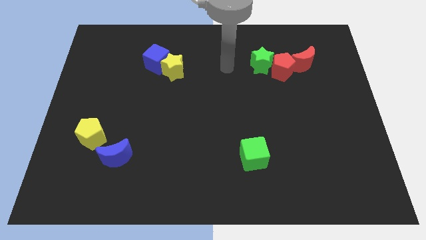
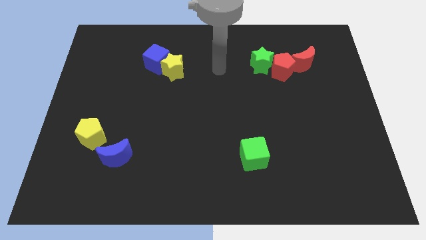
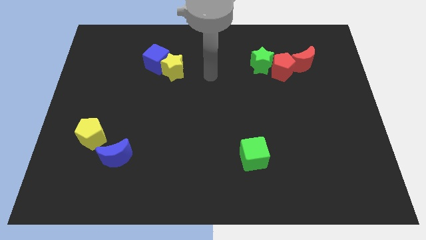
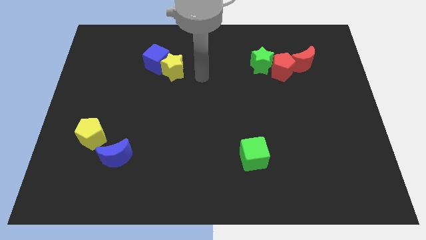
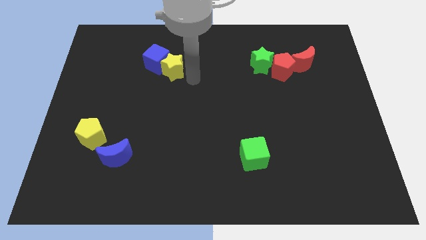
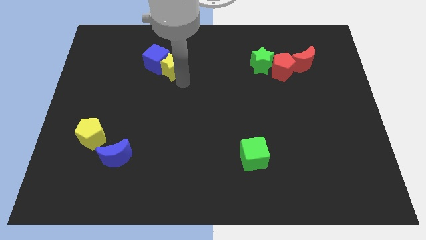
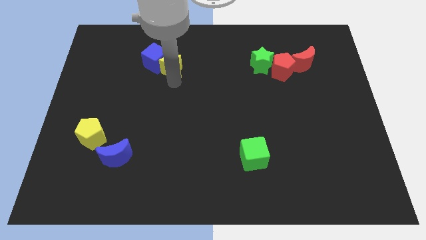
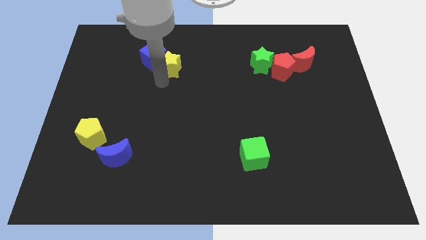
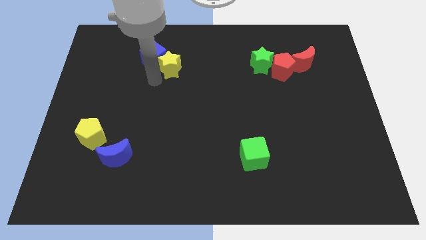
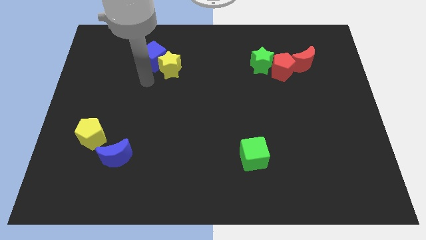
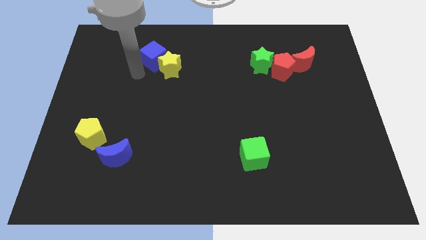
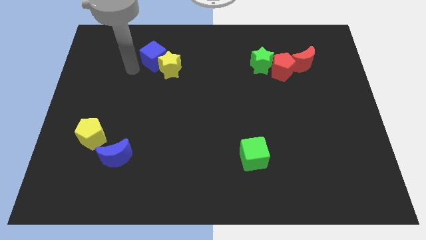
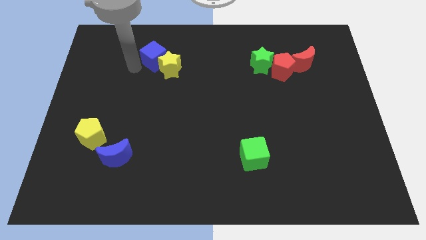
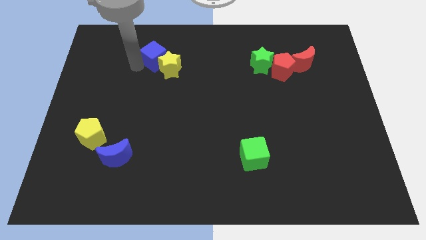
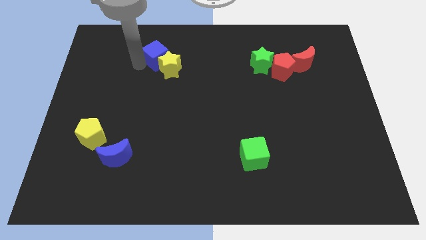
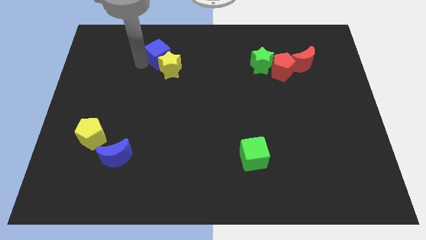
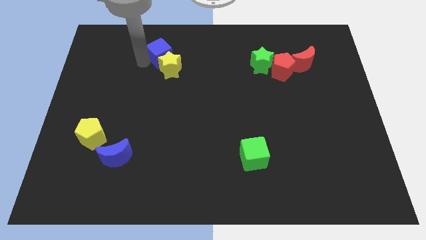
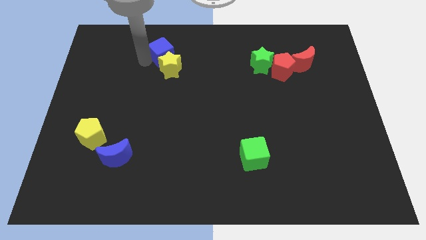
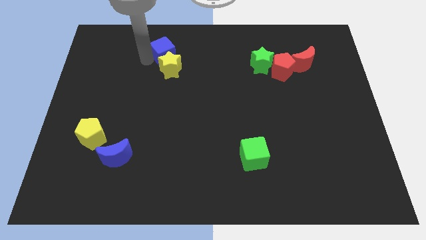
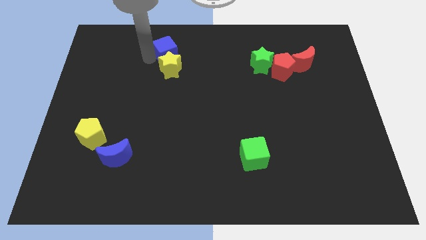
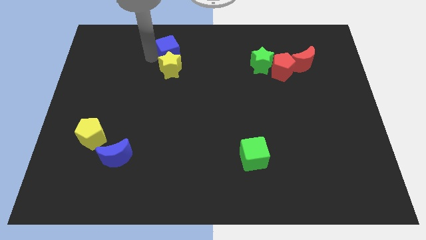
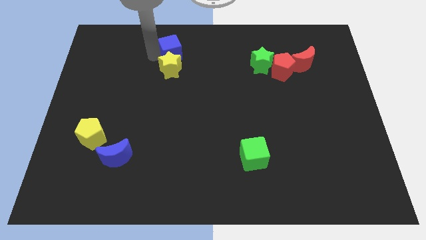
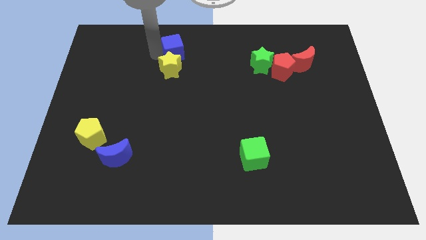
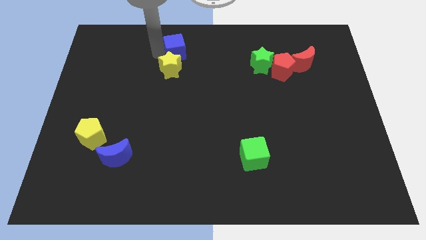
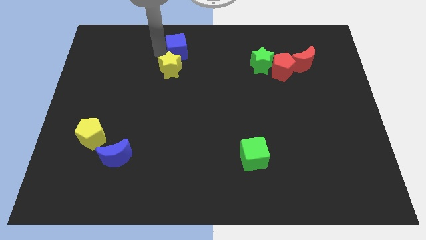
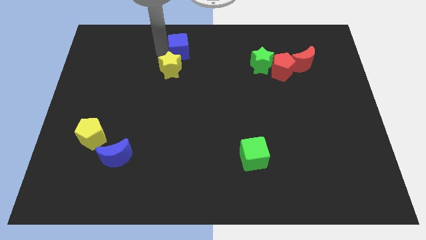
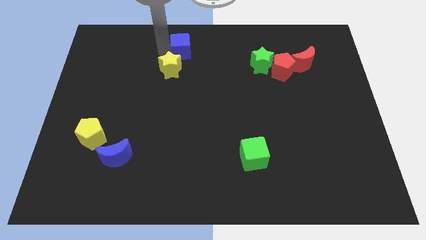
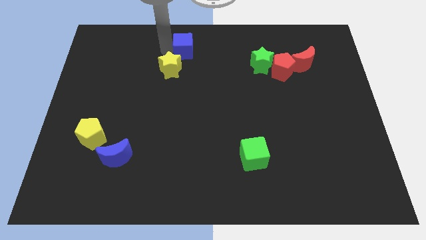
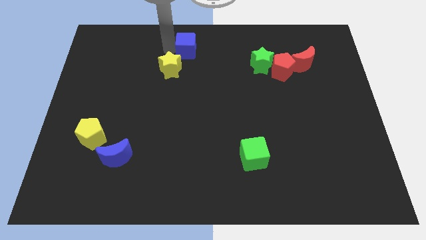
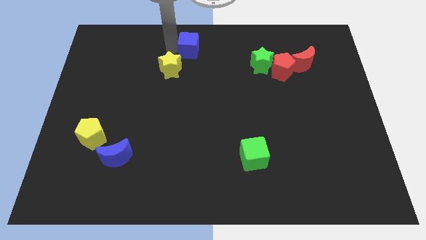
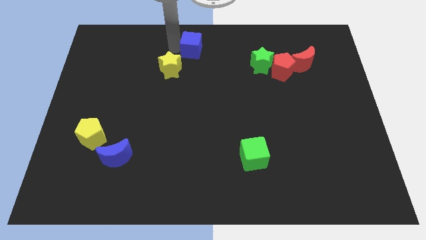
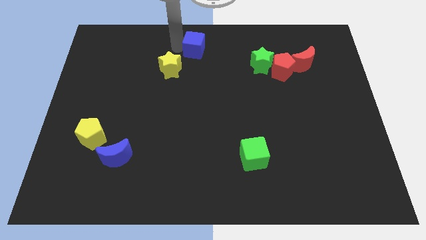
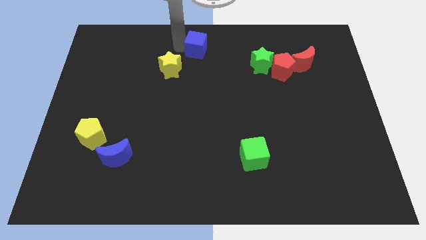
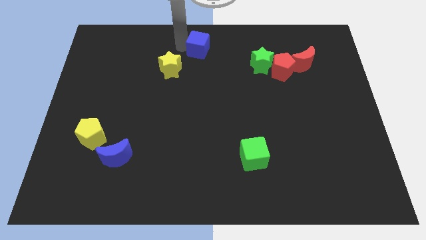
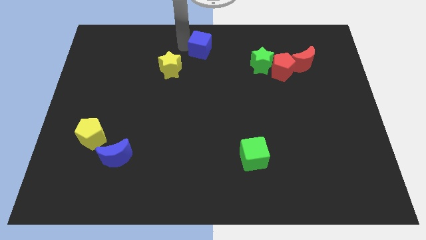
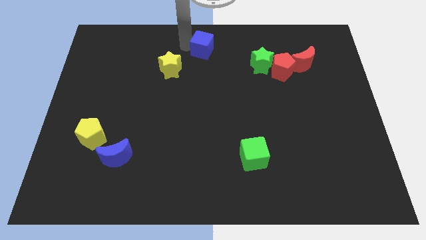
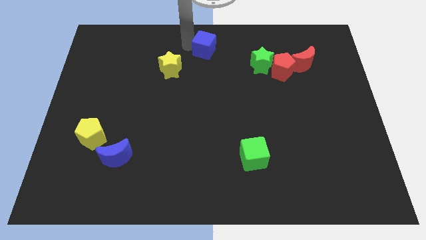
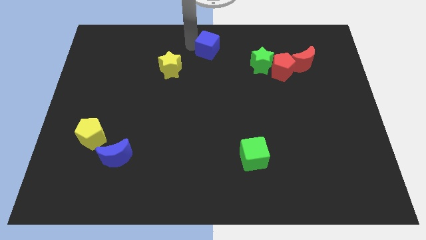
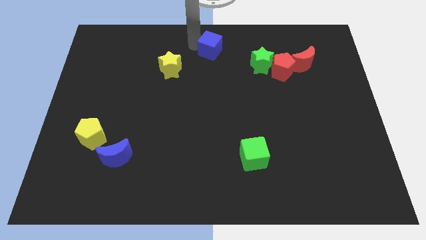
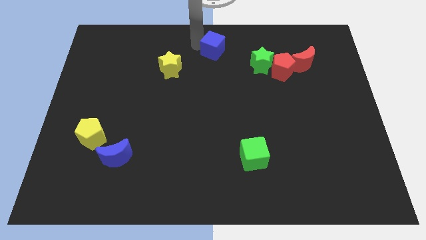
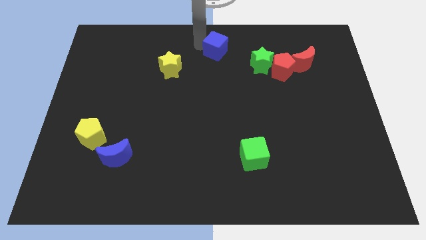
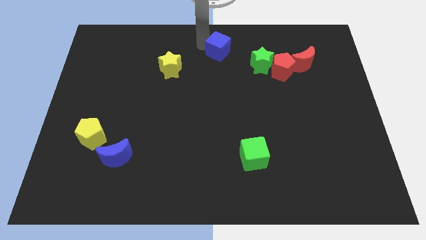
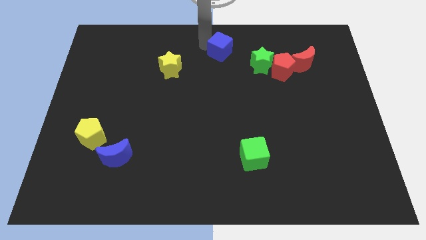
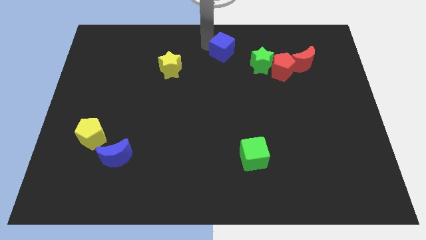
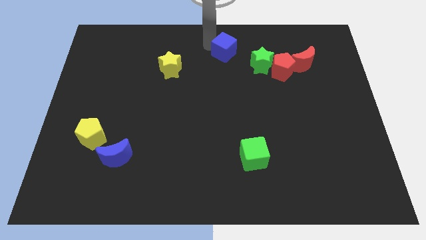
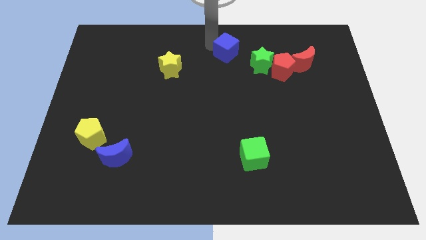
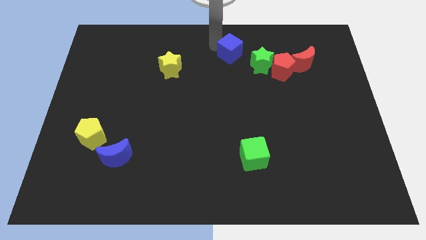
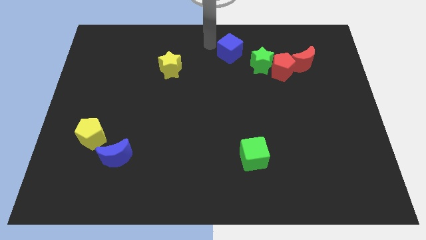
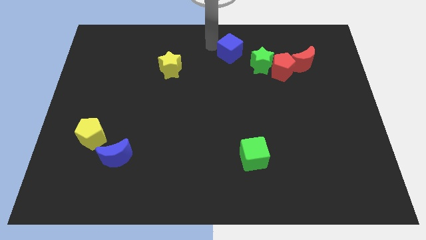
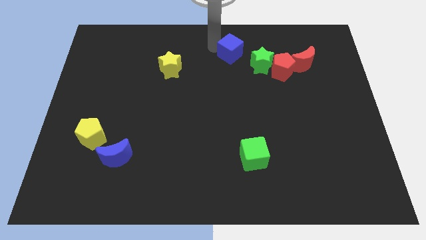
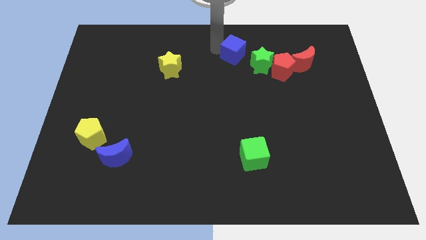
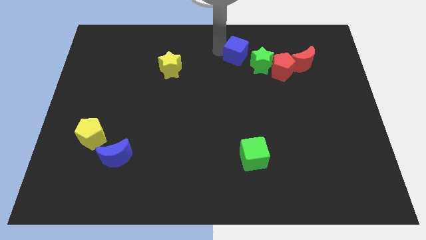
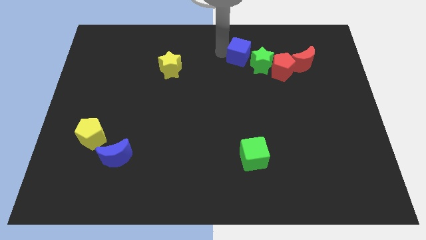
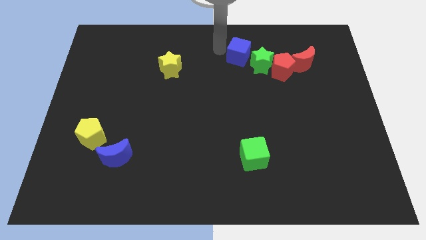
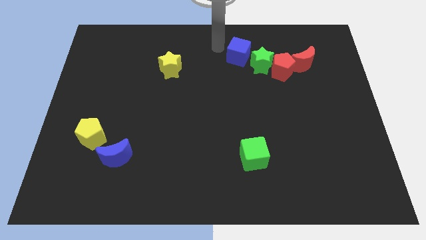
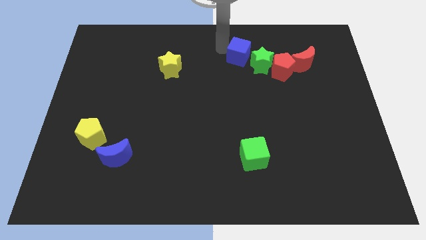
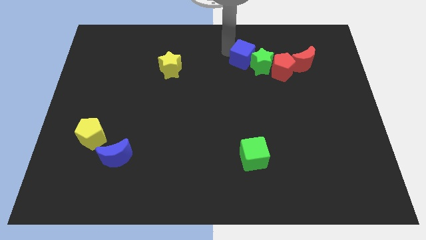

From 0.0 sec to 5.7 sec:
move the blue cube next to the green star

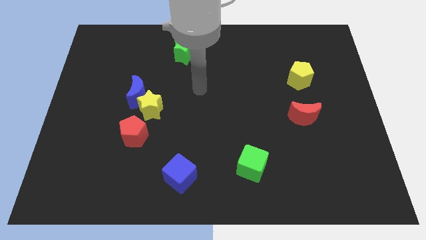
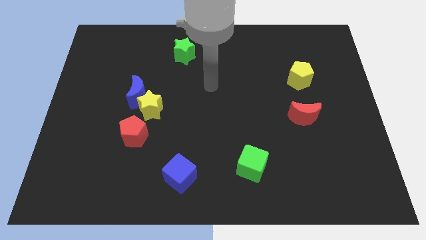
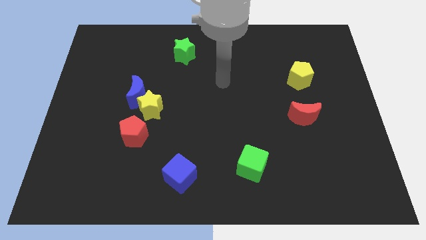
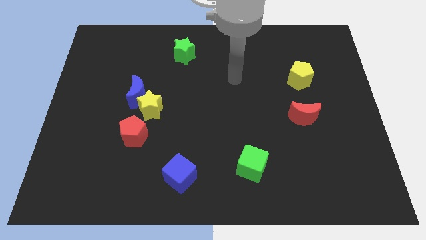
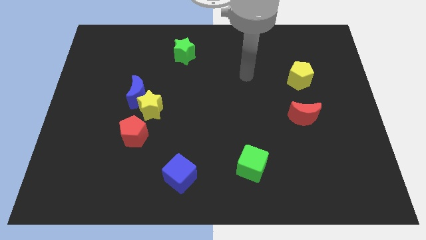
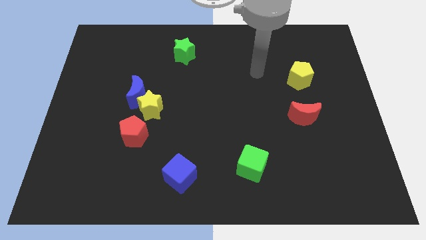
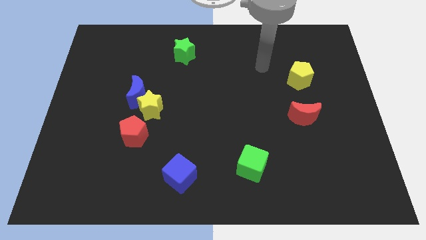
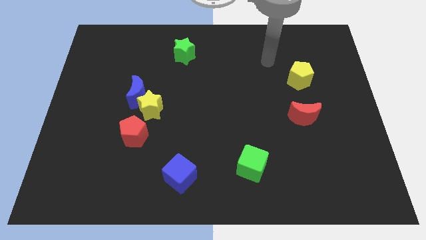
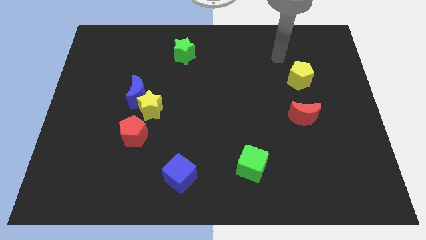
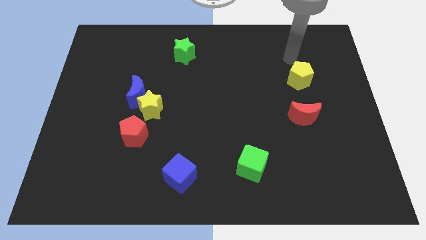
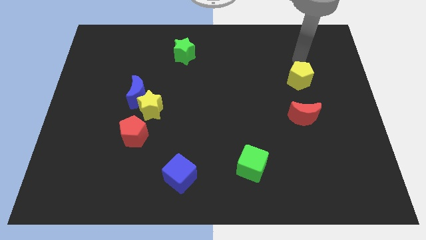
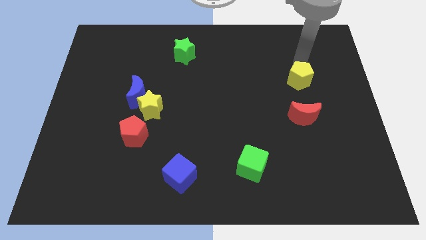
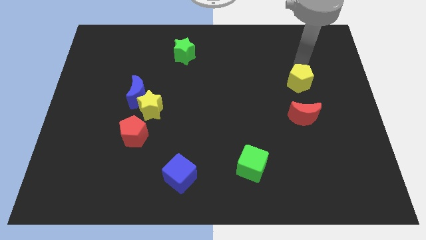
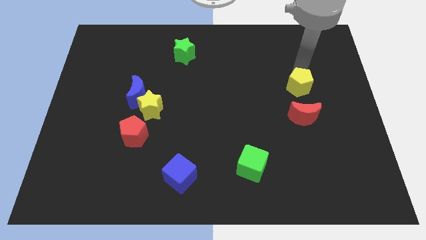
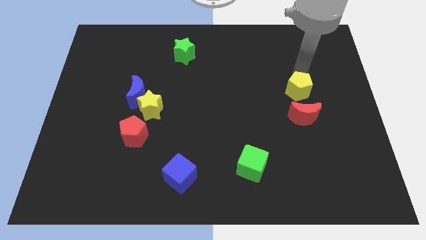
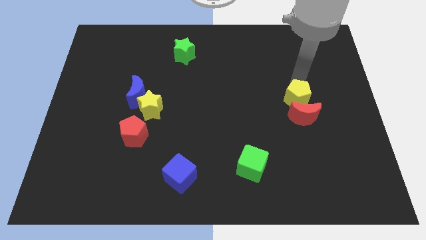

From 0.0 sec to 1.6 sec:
move the yellow pentagon next to the red moon

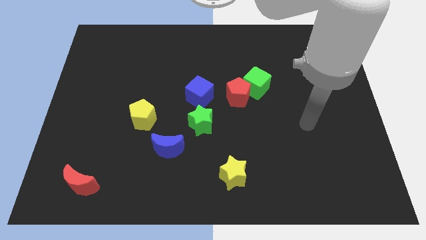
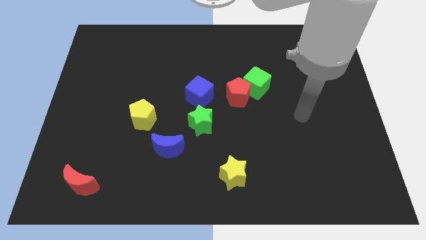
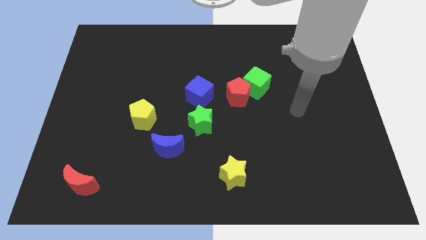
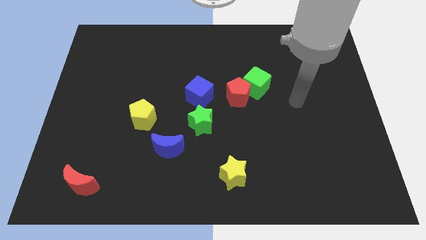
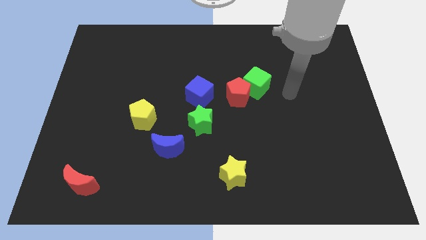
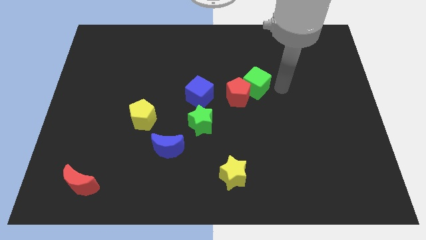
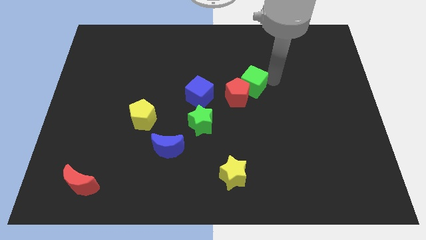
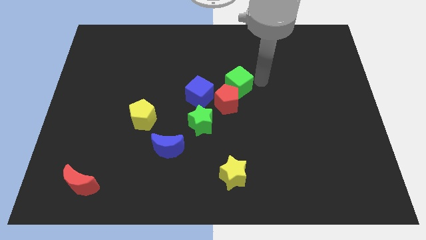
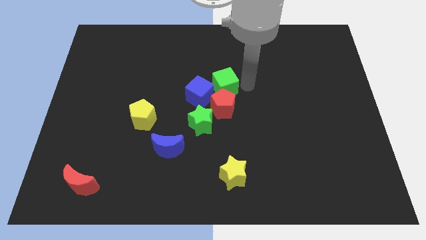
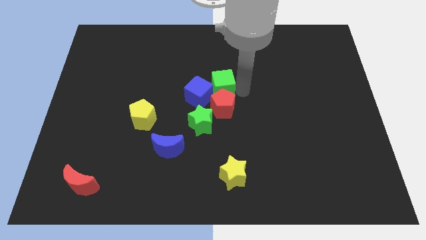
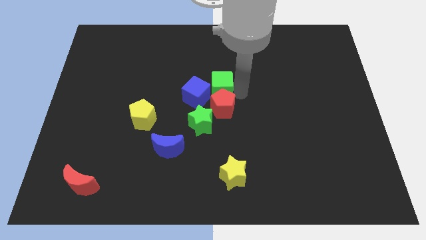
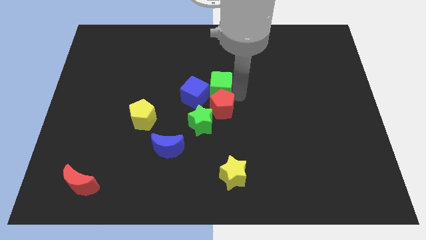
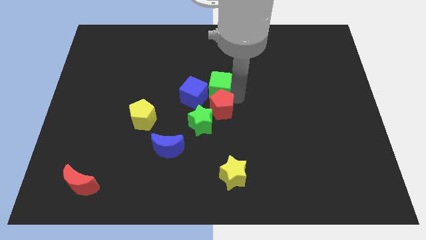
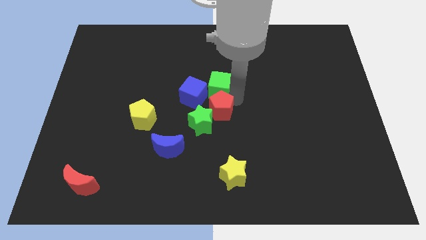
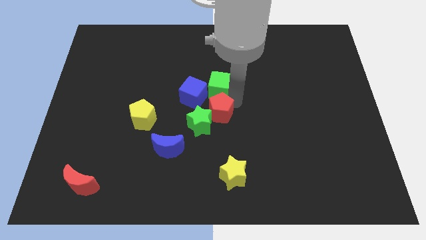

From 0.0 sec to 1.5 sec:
slide the red pentagon next to the green star
